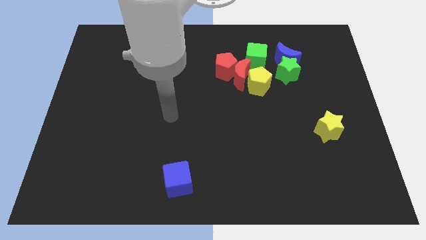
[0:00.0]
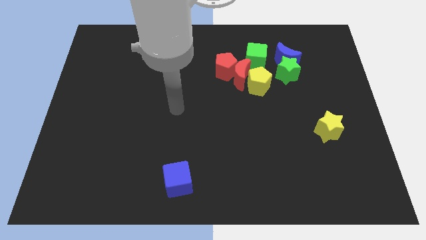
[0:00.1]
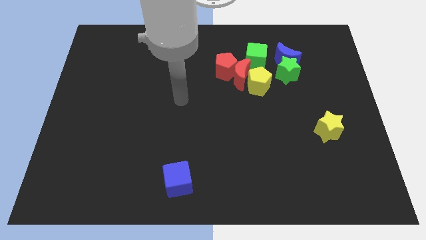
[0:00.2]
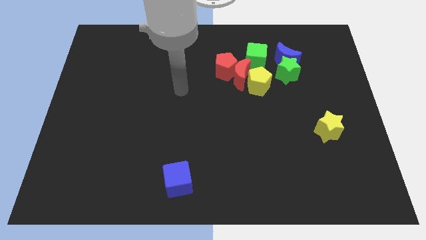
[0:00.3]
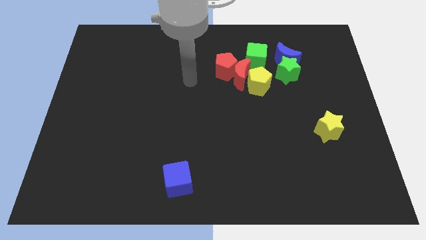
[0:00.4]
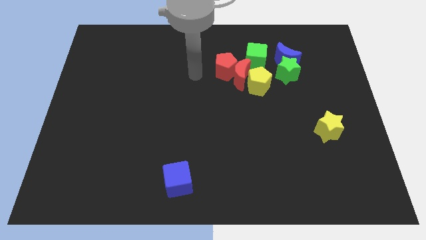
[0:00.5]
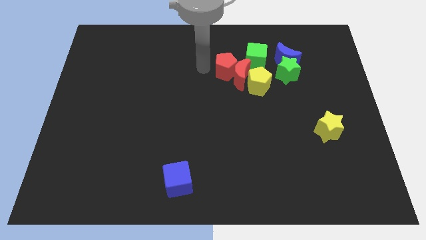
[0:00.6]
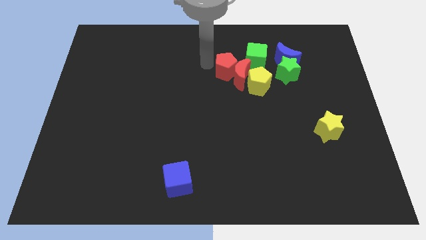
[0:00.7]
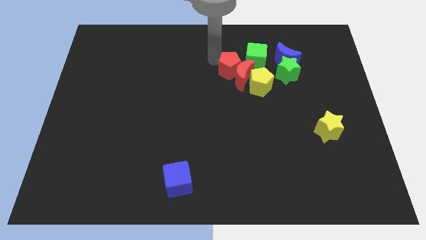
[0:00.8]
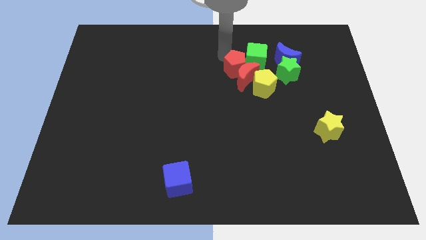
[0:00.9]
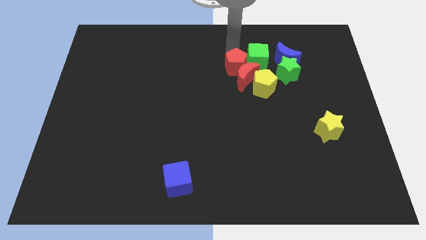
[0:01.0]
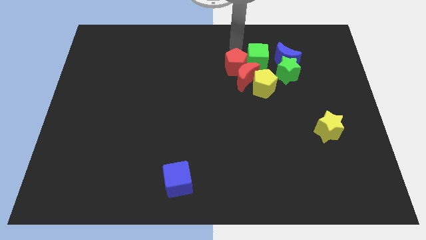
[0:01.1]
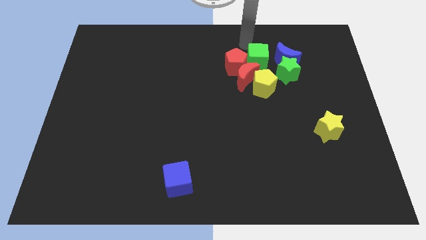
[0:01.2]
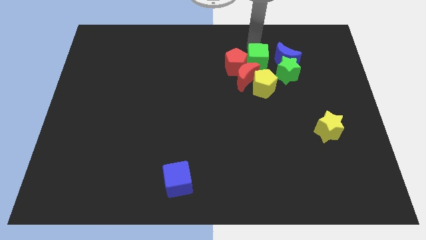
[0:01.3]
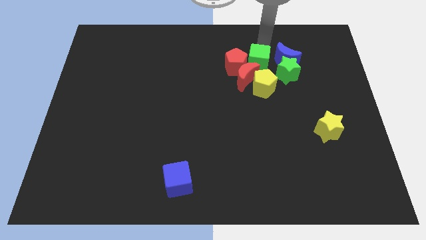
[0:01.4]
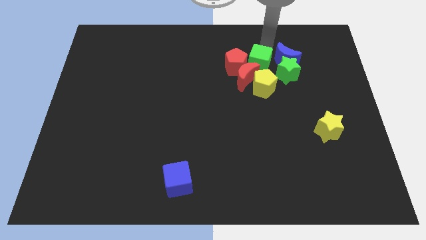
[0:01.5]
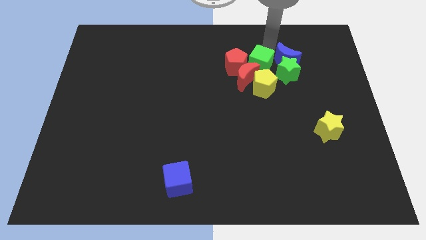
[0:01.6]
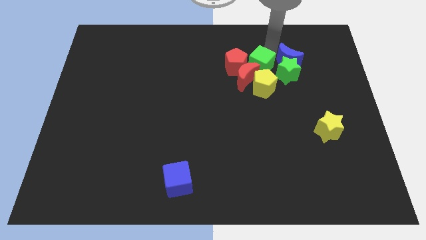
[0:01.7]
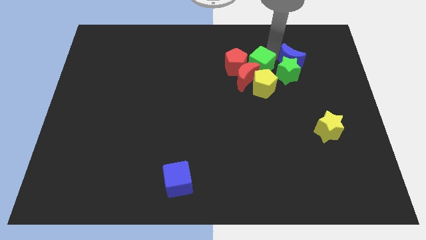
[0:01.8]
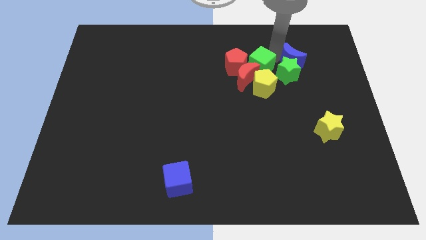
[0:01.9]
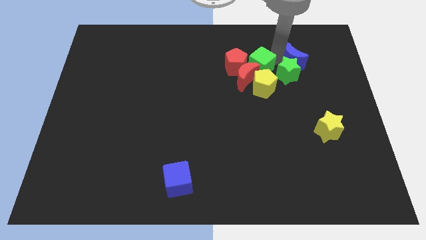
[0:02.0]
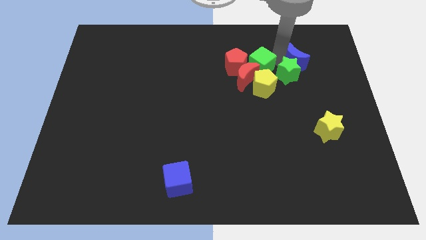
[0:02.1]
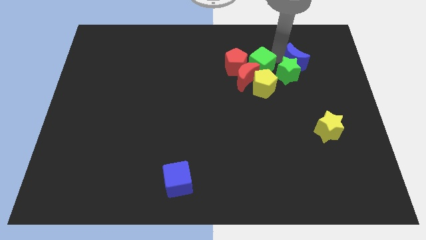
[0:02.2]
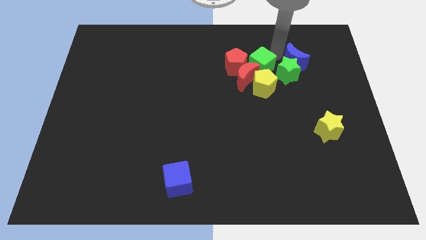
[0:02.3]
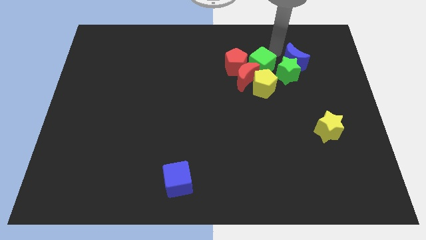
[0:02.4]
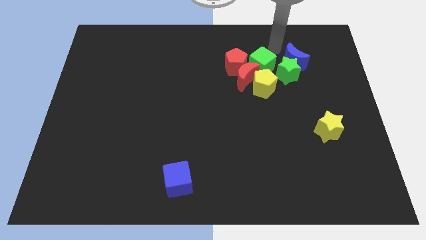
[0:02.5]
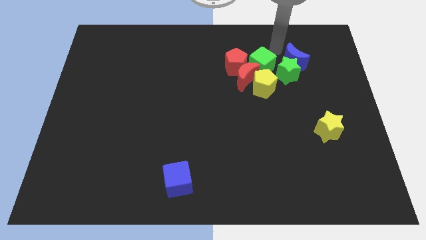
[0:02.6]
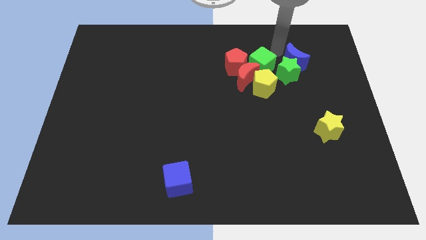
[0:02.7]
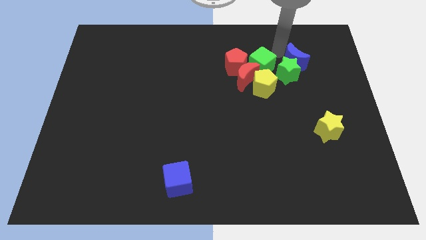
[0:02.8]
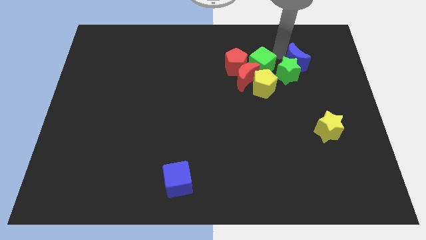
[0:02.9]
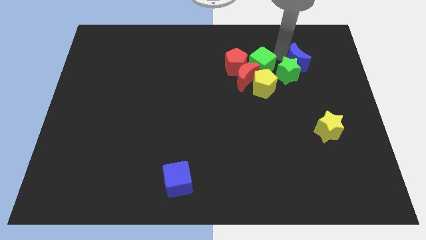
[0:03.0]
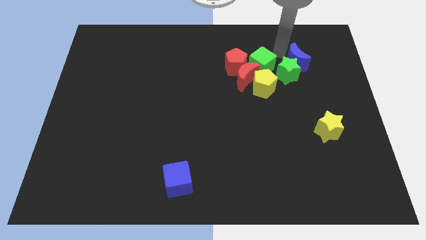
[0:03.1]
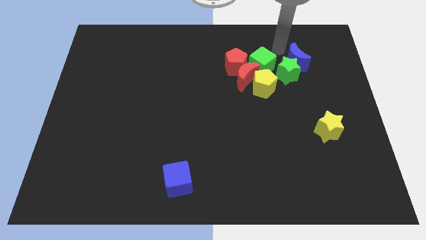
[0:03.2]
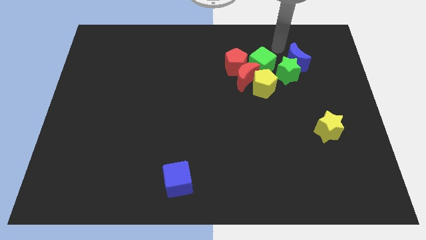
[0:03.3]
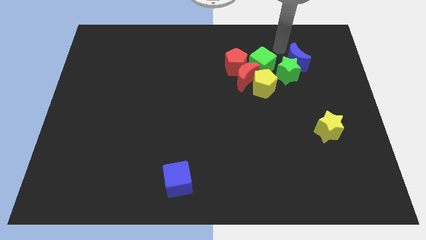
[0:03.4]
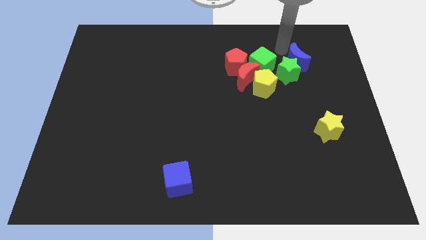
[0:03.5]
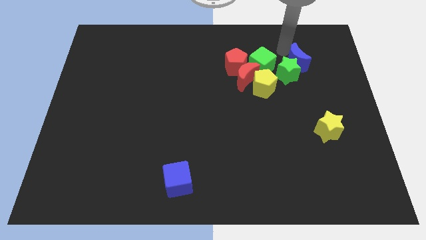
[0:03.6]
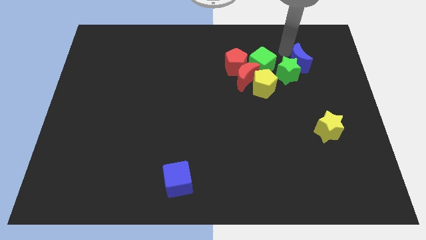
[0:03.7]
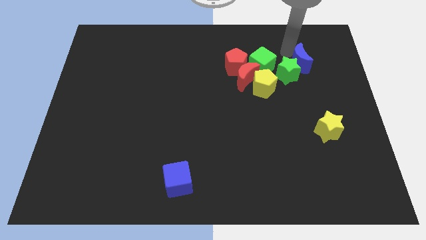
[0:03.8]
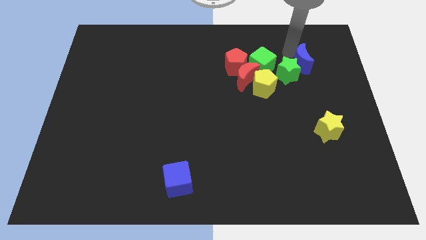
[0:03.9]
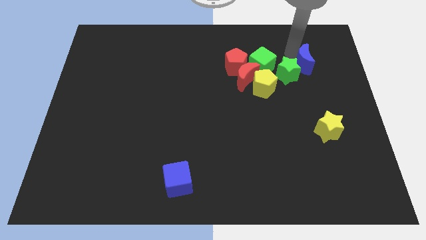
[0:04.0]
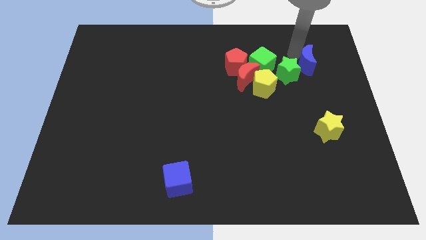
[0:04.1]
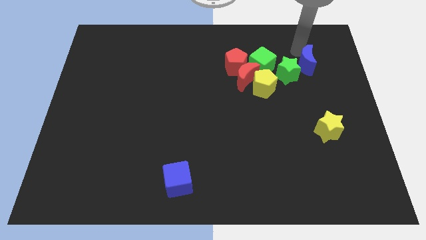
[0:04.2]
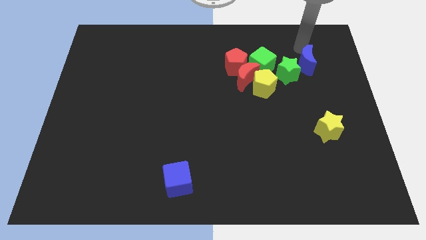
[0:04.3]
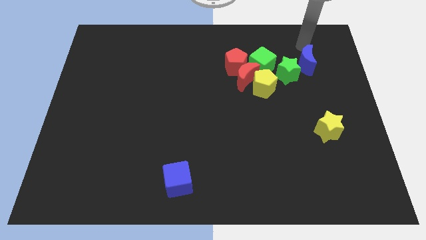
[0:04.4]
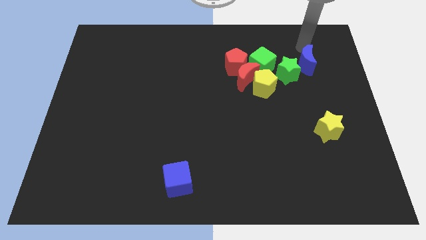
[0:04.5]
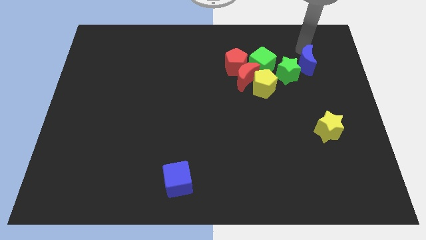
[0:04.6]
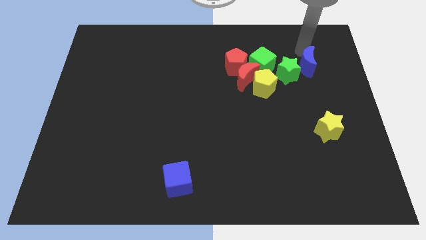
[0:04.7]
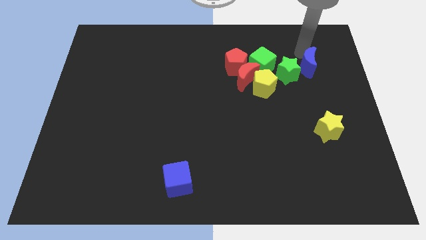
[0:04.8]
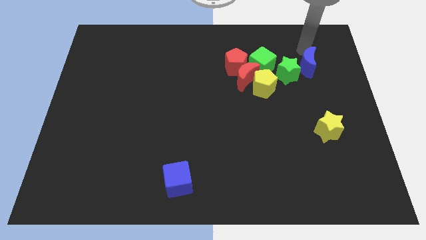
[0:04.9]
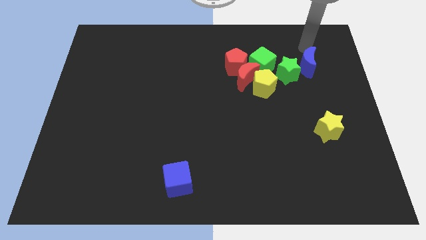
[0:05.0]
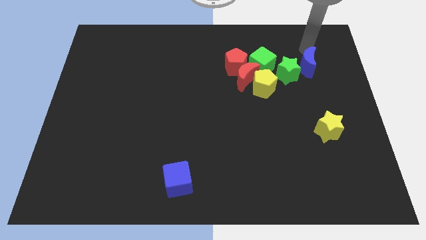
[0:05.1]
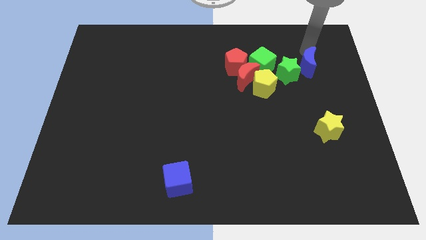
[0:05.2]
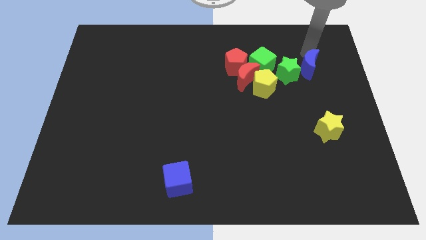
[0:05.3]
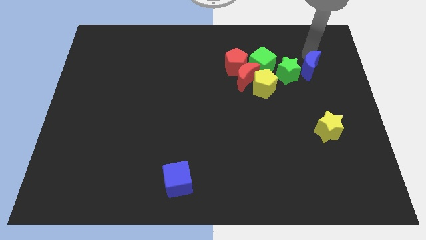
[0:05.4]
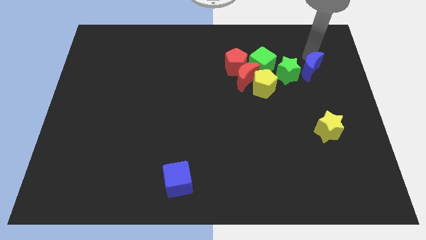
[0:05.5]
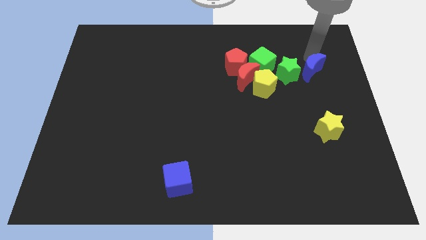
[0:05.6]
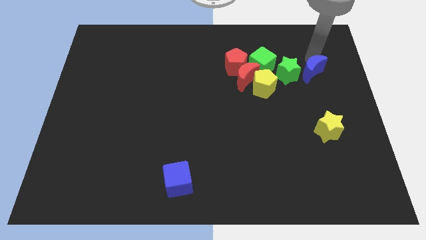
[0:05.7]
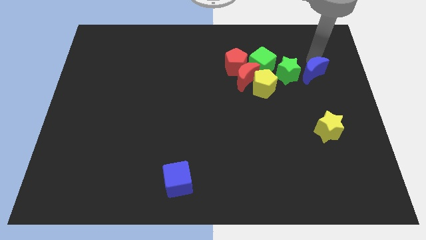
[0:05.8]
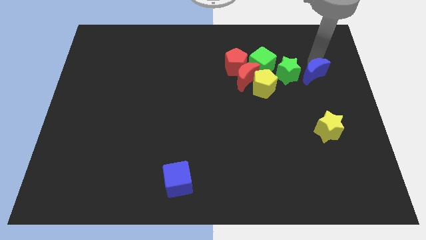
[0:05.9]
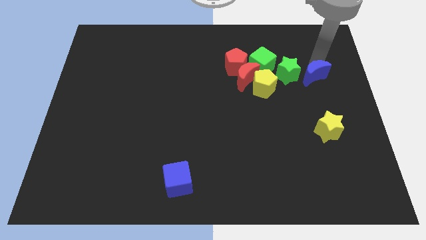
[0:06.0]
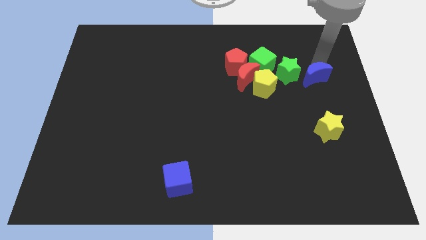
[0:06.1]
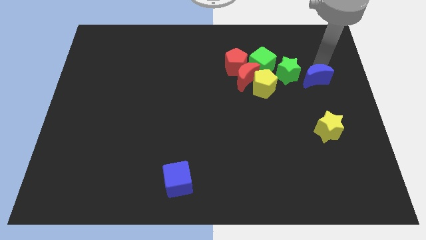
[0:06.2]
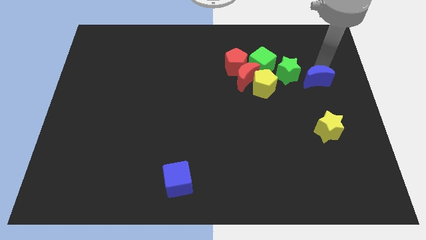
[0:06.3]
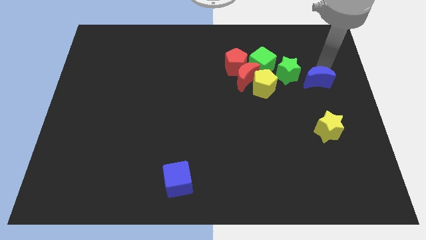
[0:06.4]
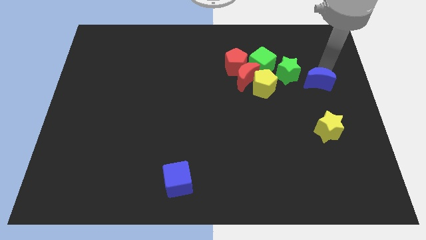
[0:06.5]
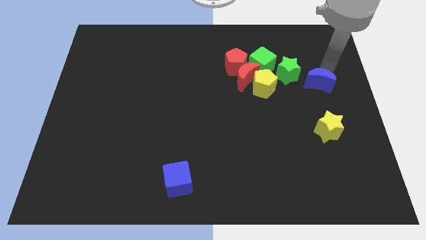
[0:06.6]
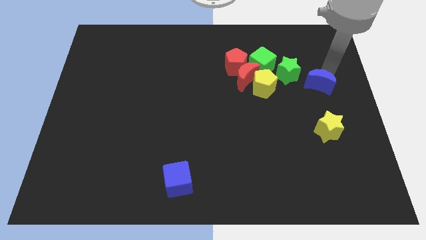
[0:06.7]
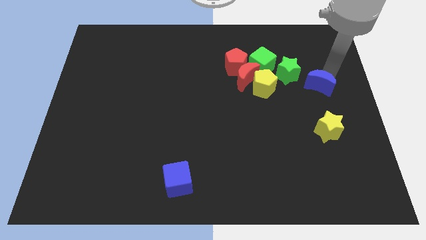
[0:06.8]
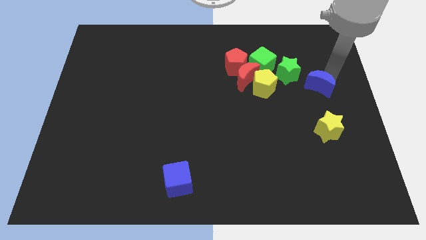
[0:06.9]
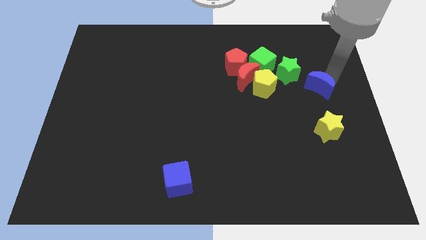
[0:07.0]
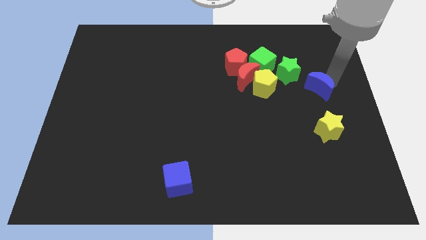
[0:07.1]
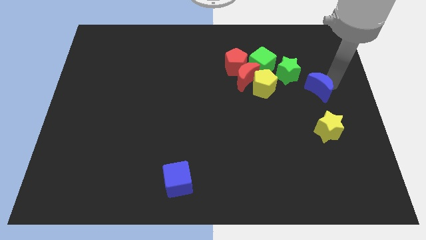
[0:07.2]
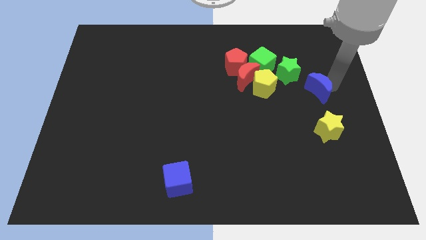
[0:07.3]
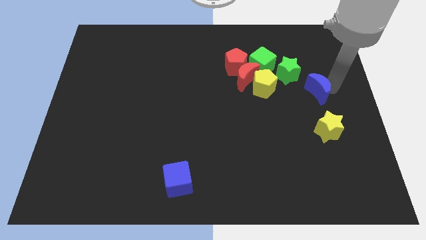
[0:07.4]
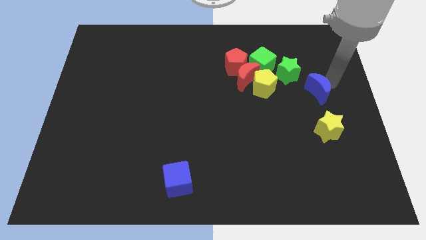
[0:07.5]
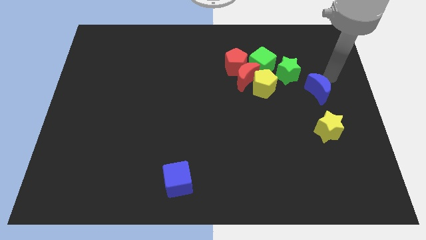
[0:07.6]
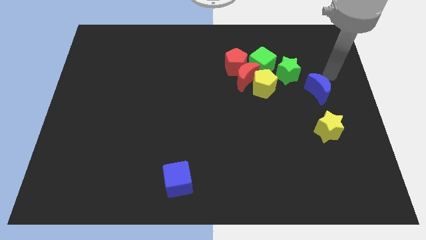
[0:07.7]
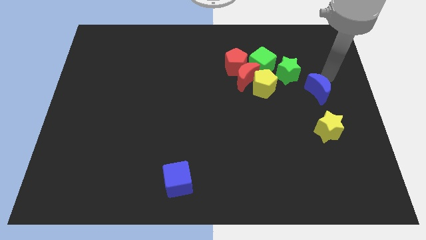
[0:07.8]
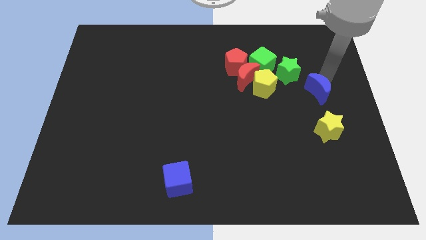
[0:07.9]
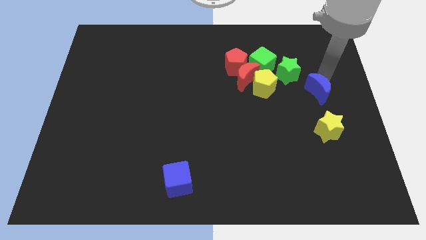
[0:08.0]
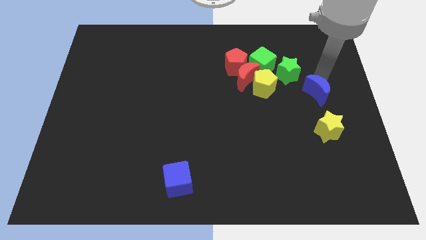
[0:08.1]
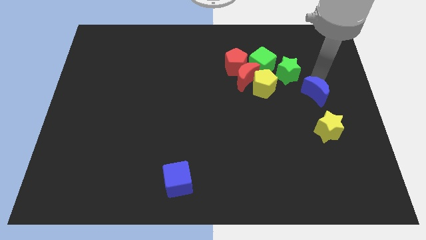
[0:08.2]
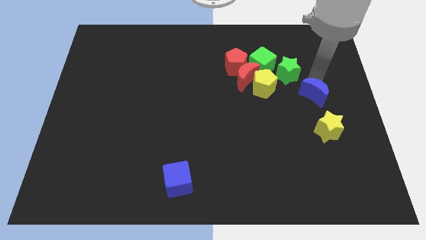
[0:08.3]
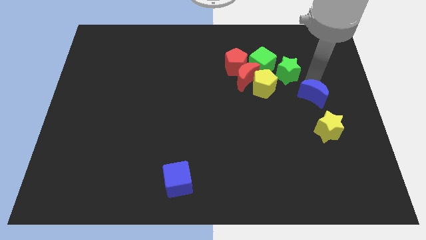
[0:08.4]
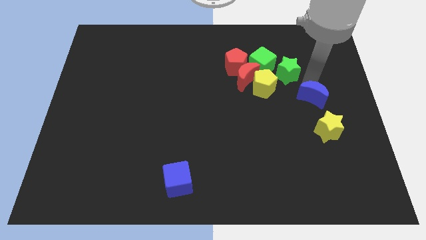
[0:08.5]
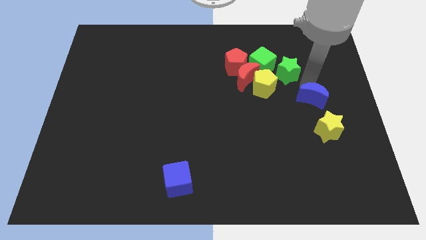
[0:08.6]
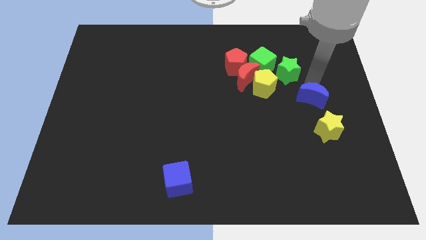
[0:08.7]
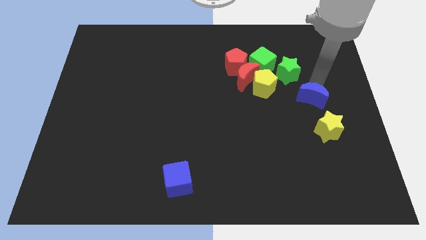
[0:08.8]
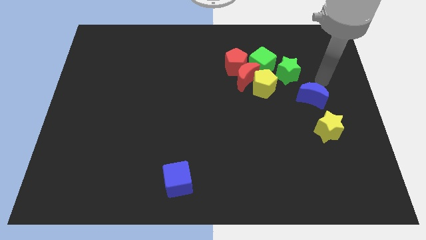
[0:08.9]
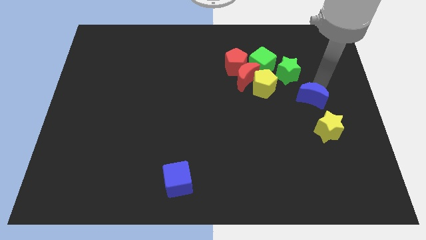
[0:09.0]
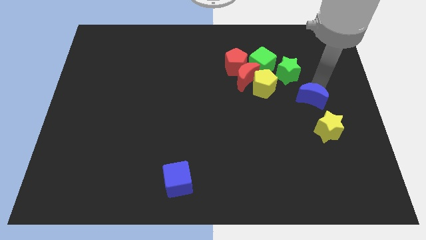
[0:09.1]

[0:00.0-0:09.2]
put the blue moon to the top left side of the yellow star
